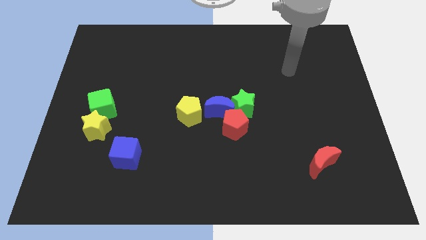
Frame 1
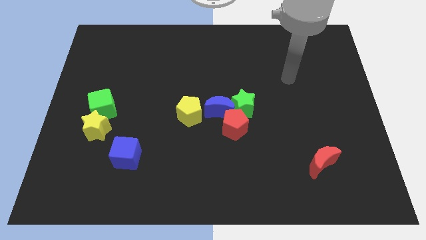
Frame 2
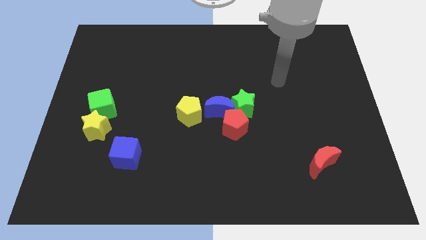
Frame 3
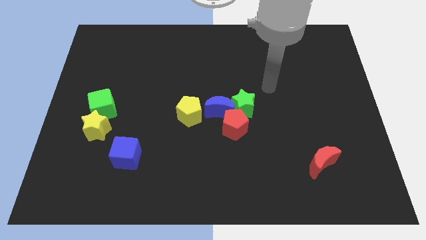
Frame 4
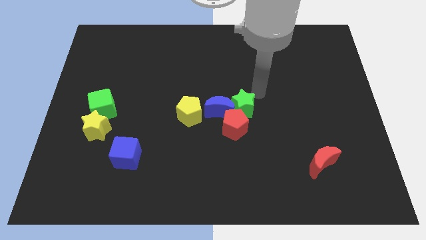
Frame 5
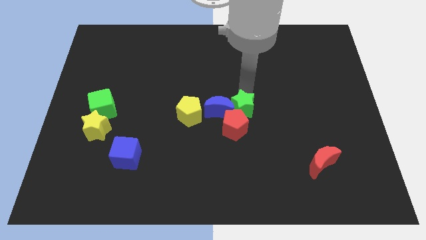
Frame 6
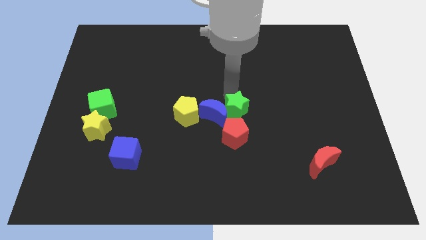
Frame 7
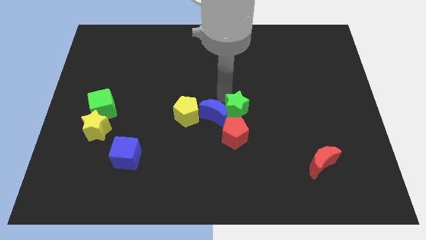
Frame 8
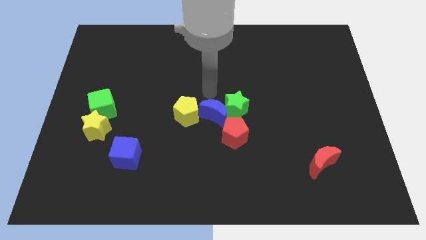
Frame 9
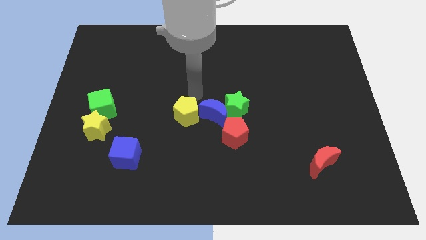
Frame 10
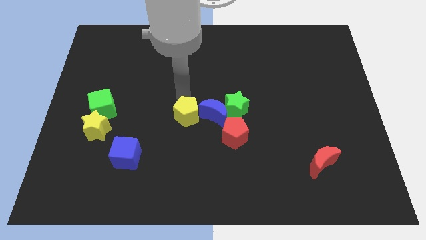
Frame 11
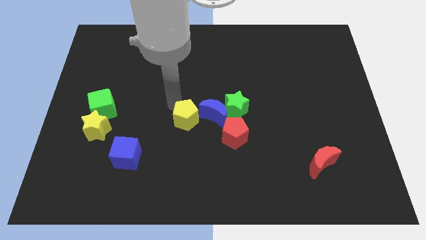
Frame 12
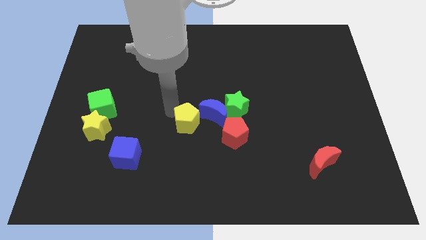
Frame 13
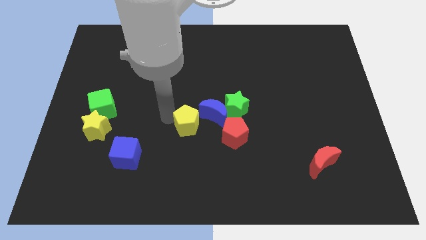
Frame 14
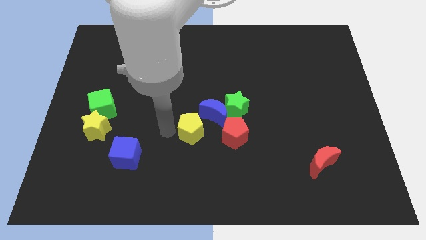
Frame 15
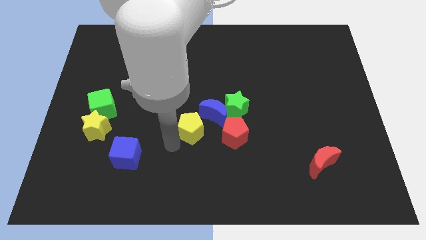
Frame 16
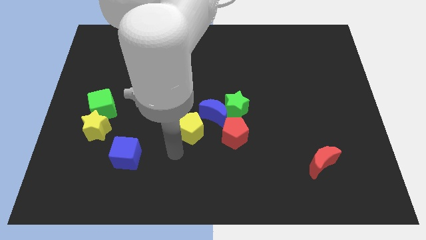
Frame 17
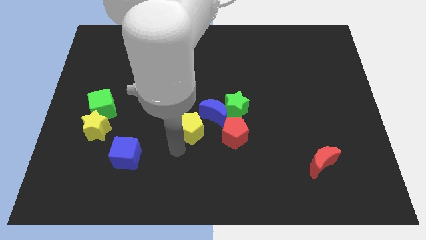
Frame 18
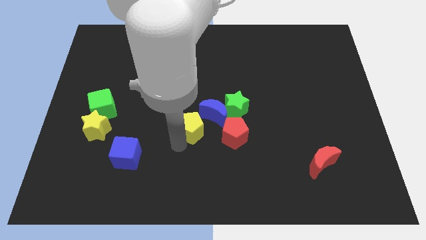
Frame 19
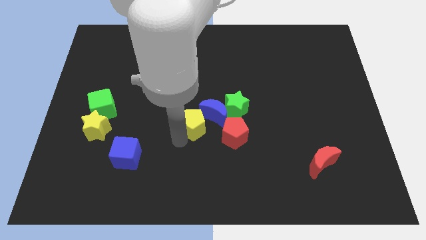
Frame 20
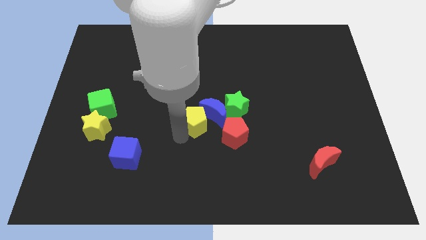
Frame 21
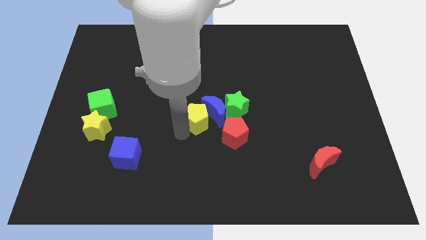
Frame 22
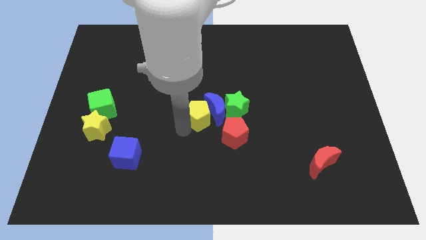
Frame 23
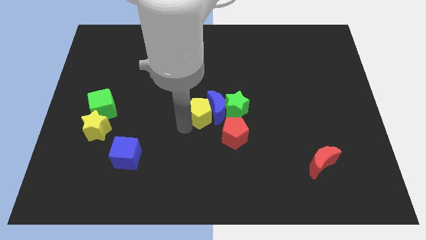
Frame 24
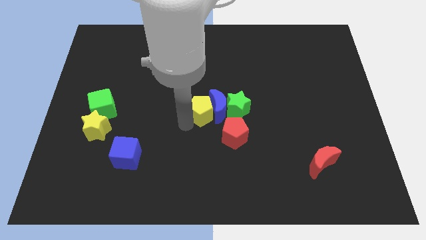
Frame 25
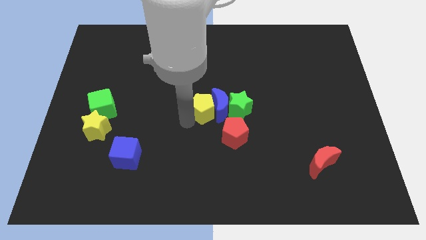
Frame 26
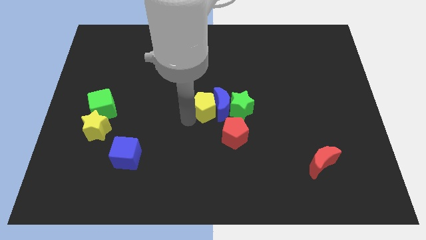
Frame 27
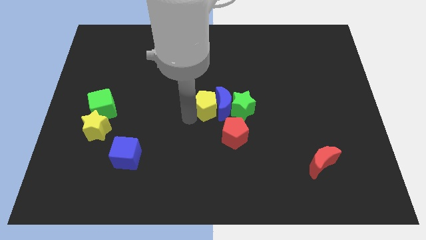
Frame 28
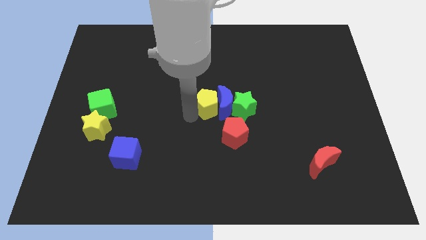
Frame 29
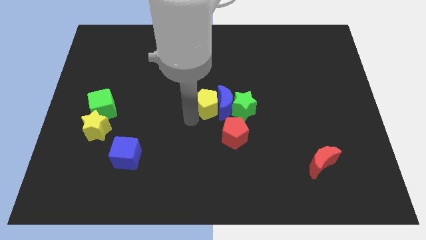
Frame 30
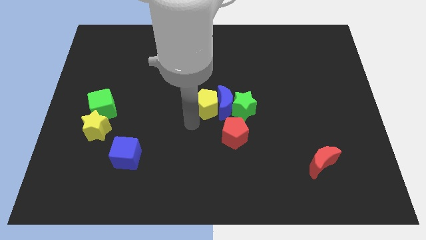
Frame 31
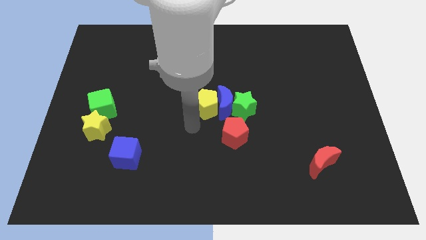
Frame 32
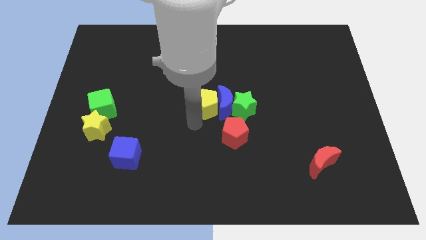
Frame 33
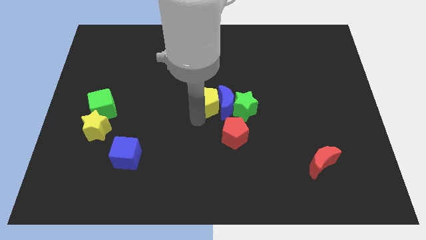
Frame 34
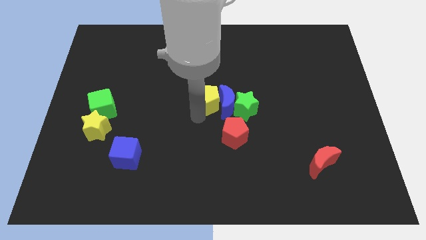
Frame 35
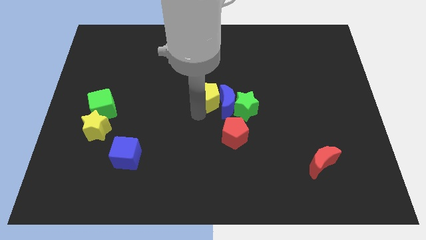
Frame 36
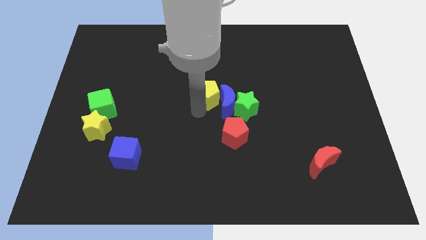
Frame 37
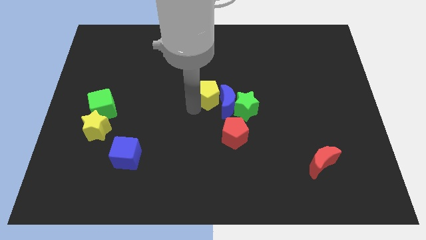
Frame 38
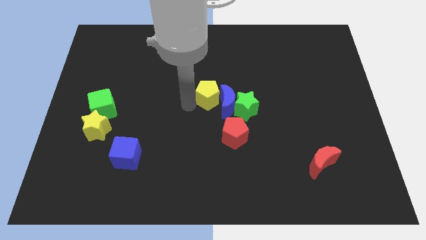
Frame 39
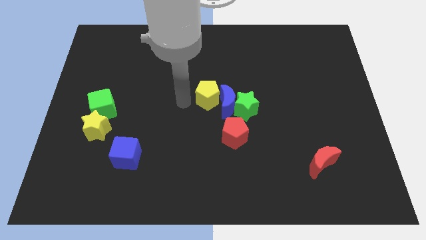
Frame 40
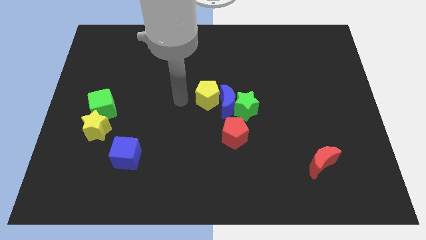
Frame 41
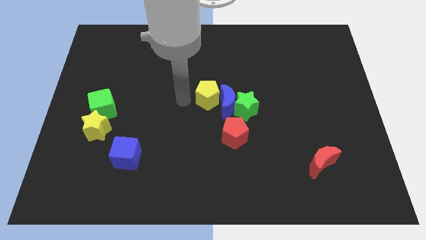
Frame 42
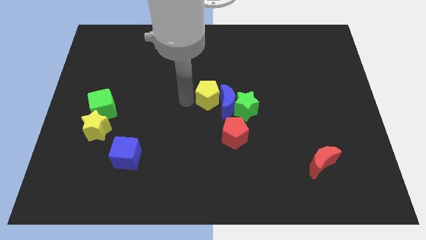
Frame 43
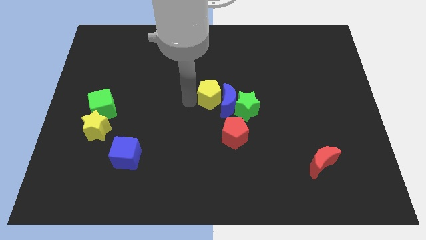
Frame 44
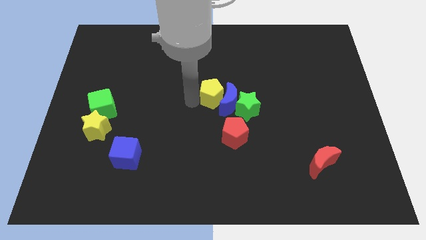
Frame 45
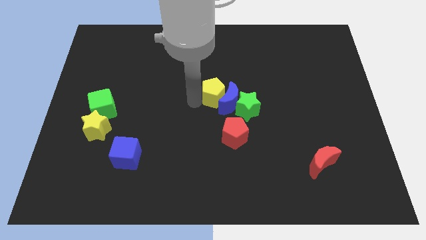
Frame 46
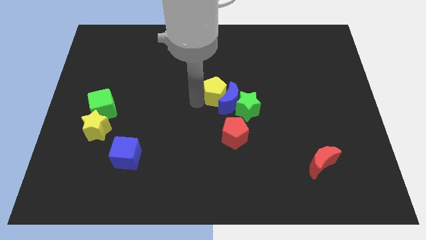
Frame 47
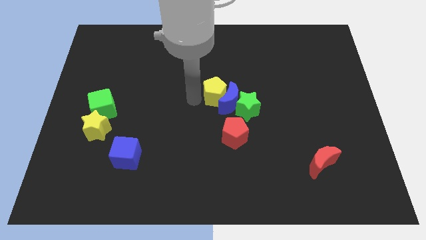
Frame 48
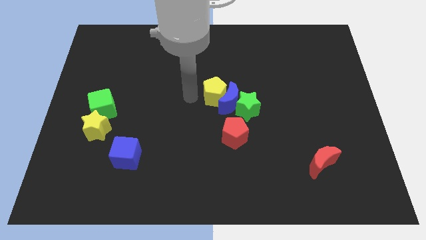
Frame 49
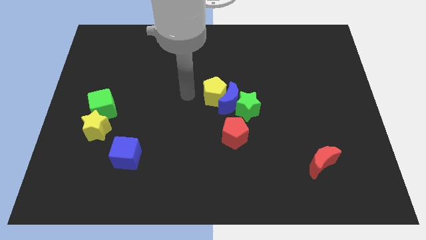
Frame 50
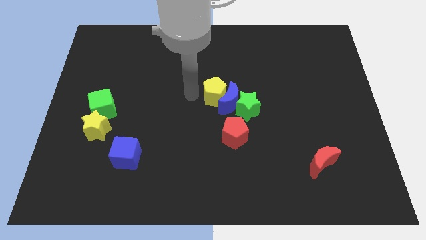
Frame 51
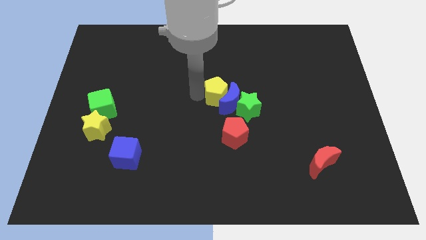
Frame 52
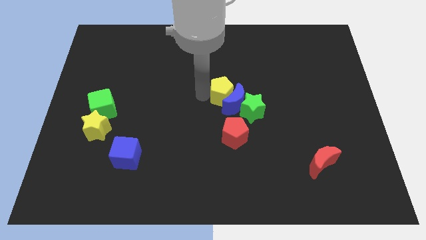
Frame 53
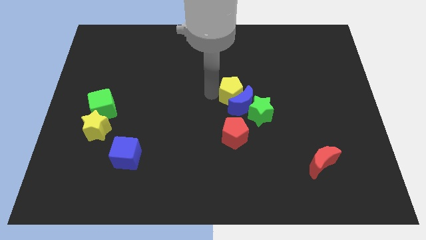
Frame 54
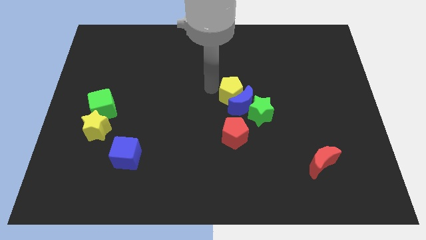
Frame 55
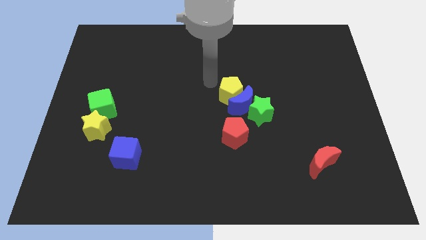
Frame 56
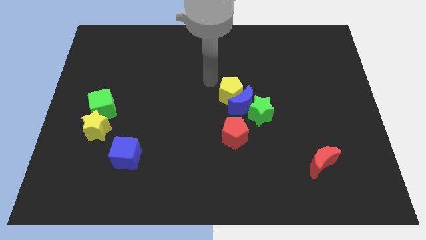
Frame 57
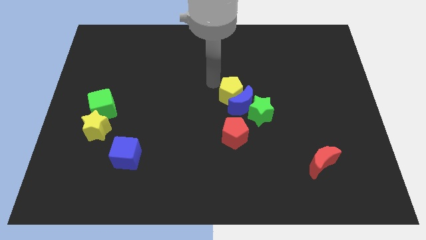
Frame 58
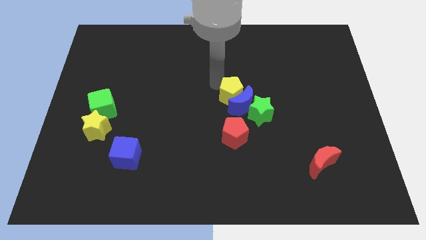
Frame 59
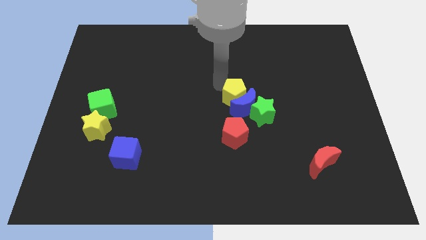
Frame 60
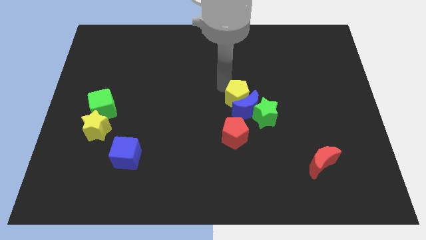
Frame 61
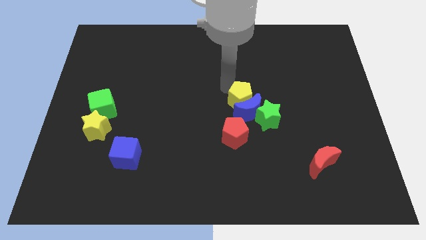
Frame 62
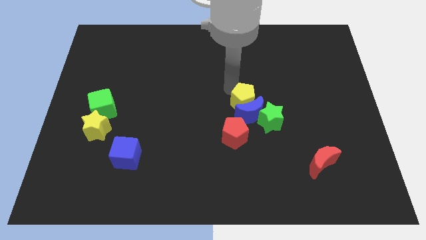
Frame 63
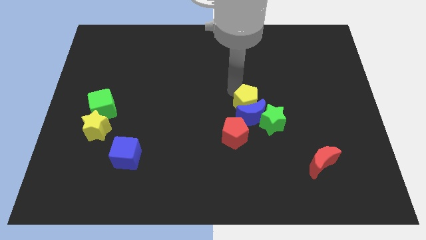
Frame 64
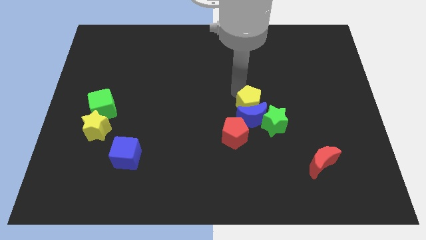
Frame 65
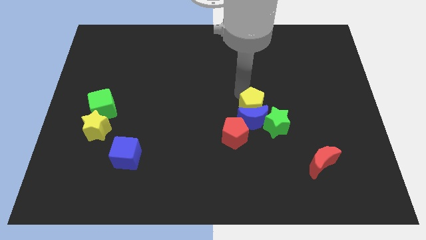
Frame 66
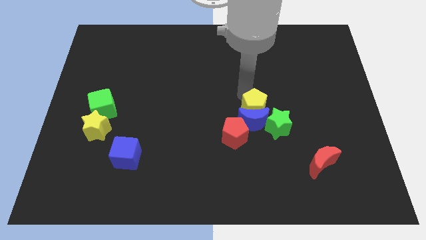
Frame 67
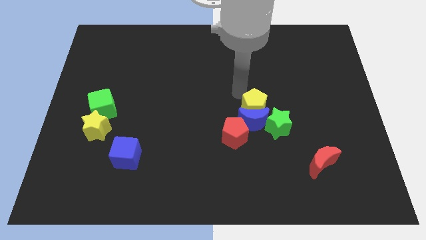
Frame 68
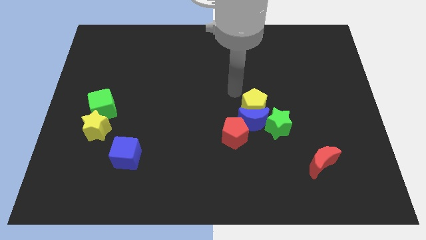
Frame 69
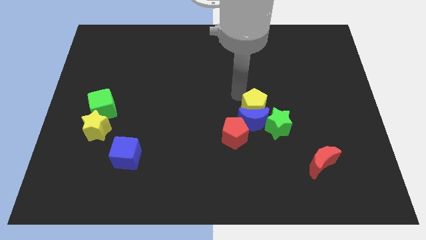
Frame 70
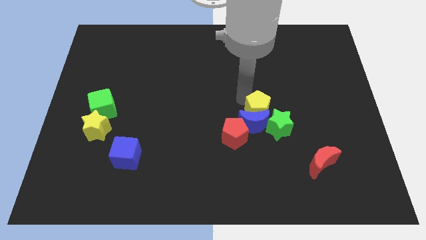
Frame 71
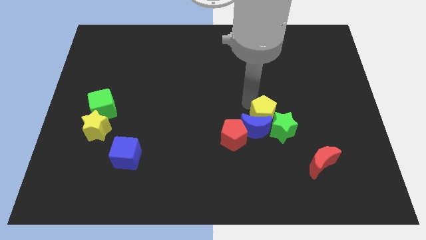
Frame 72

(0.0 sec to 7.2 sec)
put the yellow pentagon close to the green star
